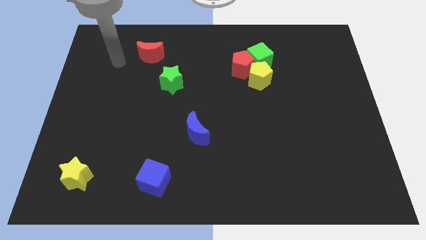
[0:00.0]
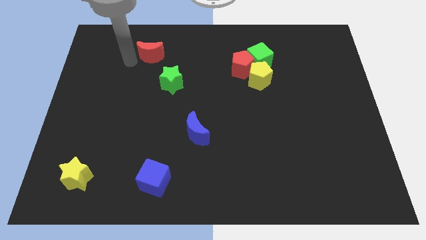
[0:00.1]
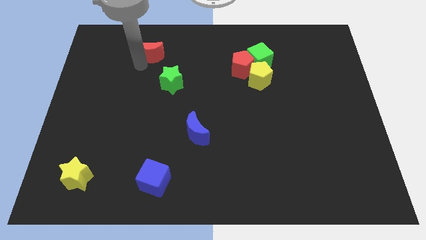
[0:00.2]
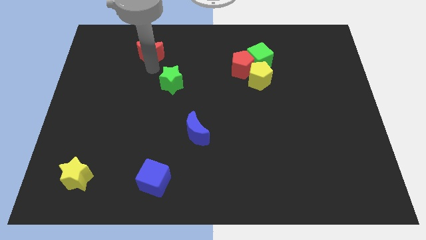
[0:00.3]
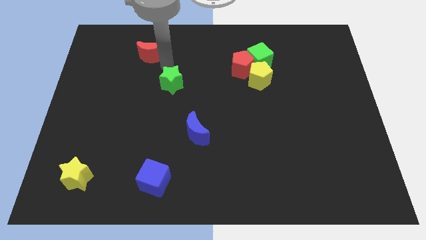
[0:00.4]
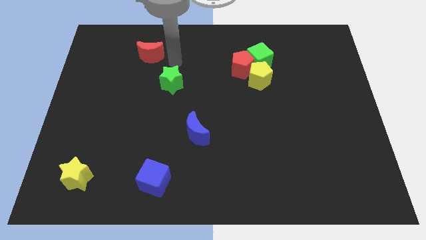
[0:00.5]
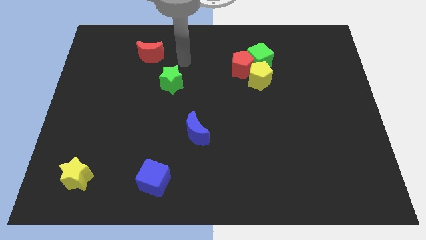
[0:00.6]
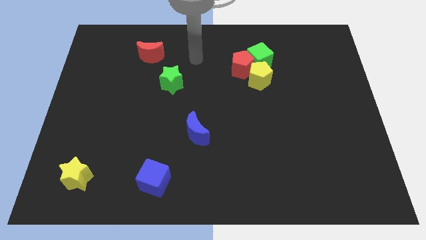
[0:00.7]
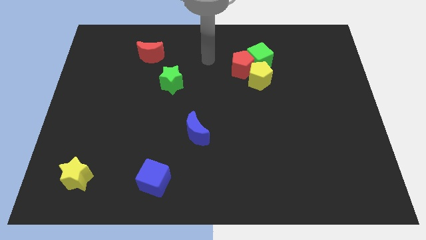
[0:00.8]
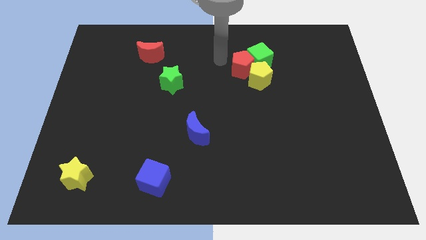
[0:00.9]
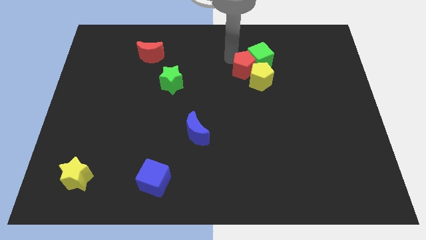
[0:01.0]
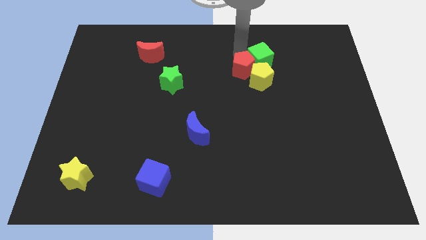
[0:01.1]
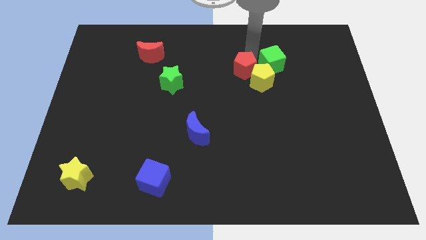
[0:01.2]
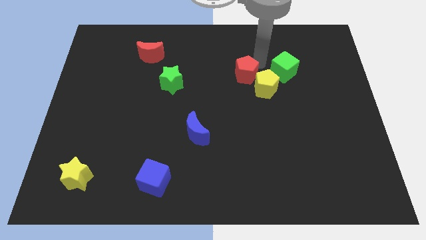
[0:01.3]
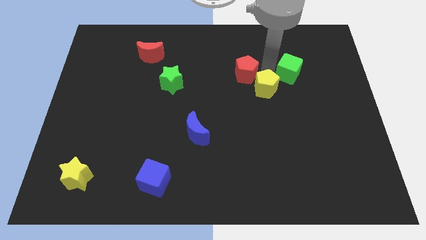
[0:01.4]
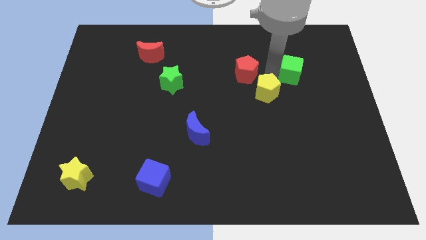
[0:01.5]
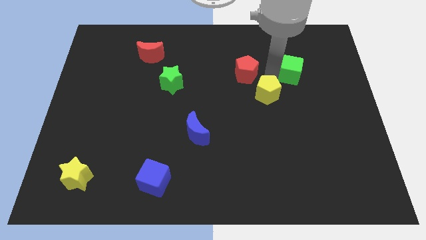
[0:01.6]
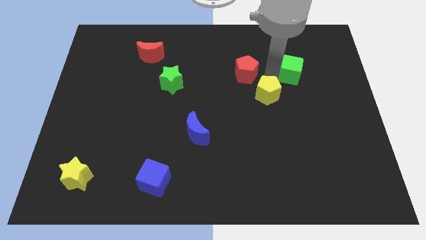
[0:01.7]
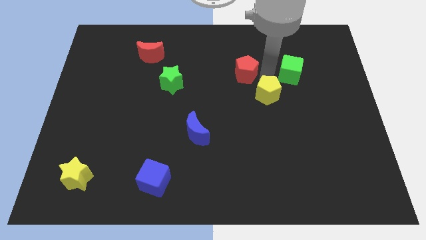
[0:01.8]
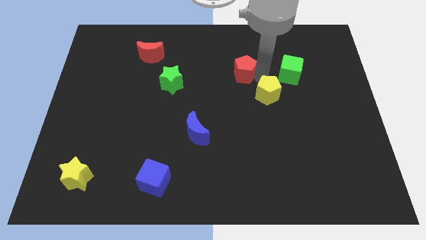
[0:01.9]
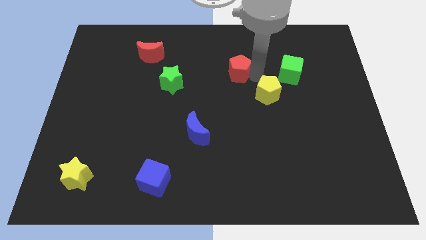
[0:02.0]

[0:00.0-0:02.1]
move the red pentagon away from the green cube and yellow pentagon

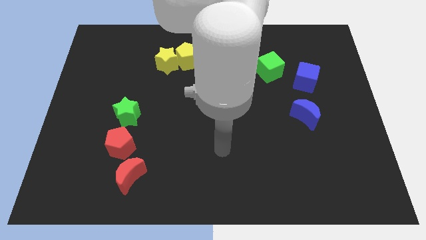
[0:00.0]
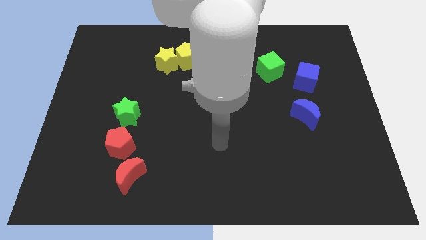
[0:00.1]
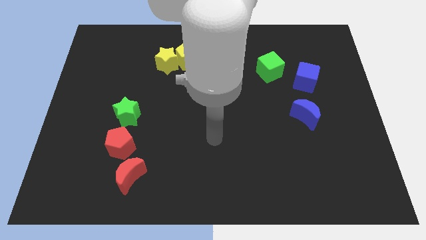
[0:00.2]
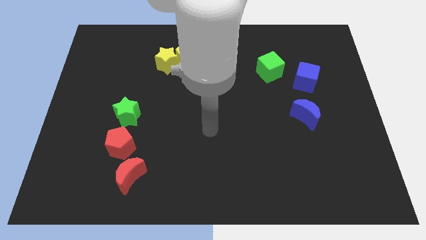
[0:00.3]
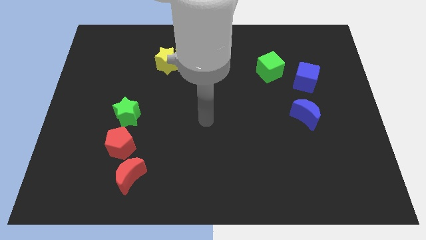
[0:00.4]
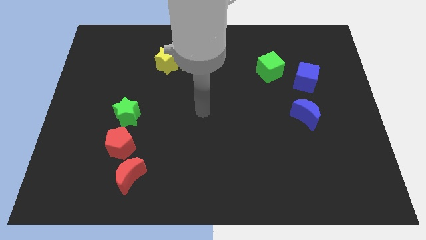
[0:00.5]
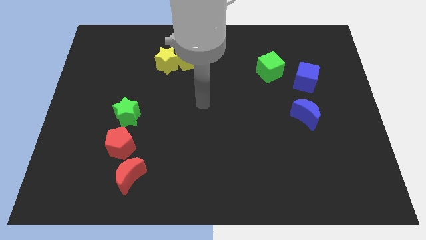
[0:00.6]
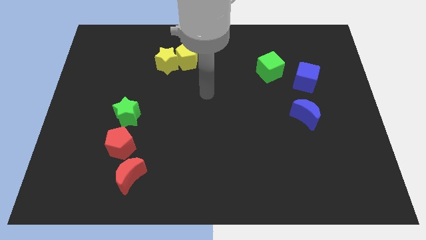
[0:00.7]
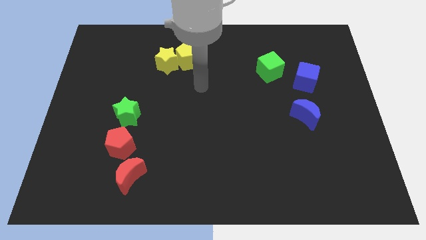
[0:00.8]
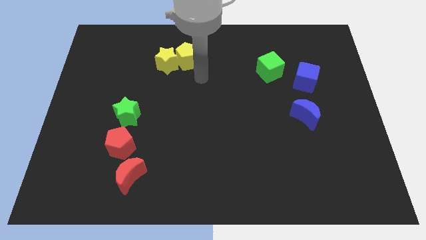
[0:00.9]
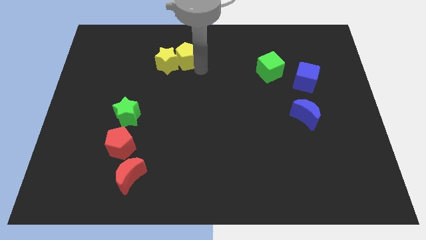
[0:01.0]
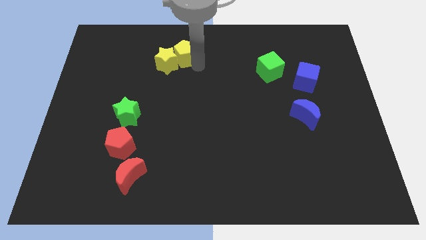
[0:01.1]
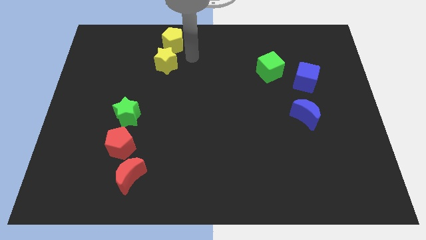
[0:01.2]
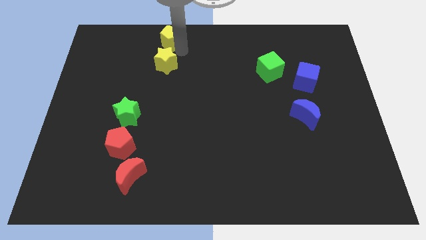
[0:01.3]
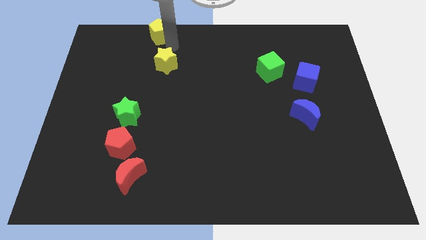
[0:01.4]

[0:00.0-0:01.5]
move the yellow star away from the yellow pentagon

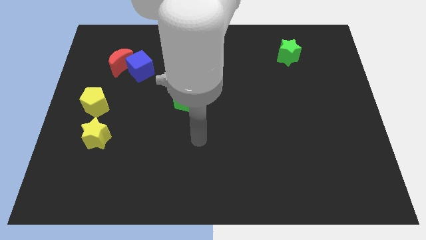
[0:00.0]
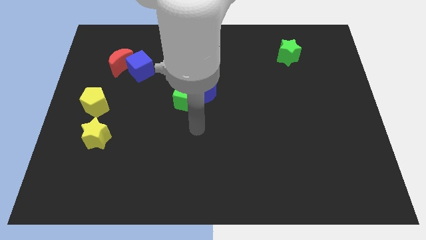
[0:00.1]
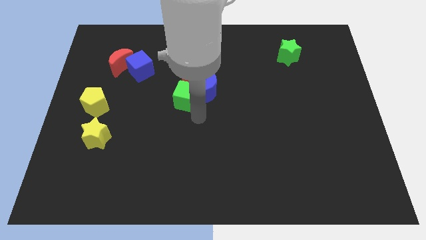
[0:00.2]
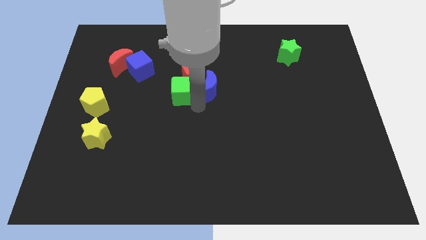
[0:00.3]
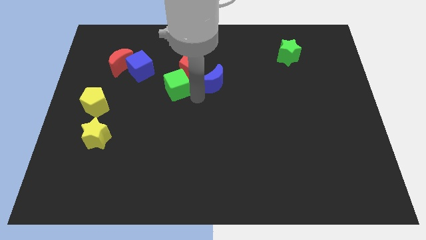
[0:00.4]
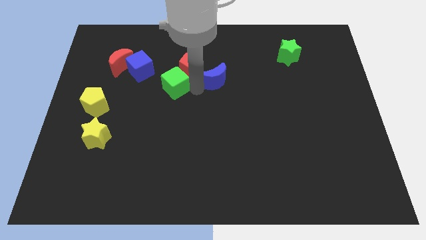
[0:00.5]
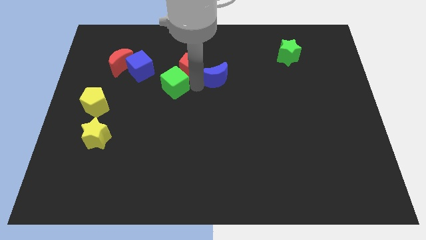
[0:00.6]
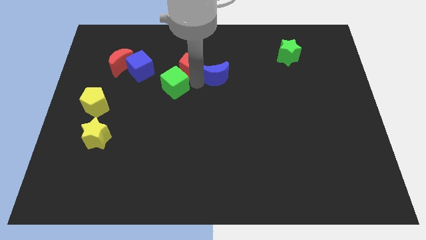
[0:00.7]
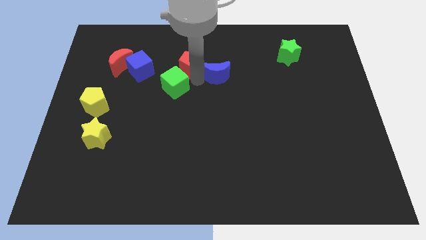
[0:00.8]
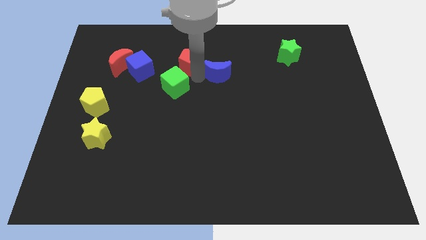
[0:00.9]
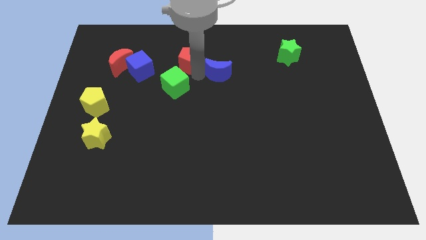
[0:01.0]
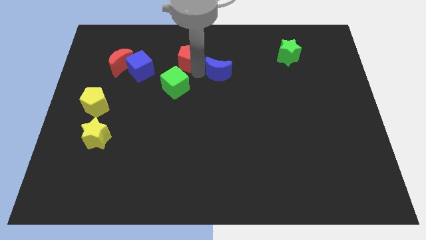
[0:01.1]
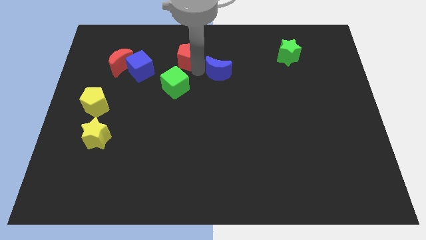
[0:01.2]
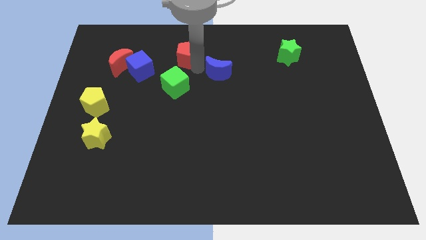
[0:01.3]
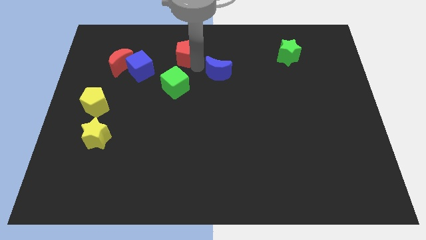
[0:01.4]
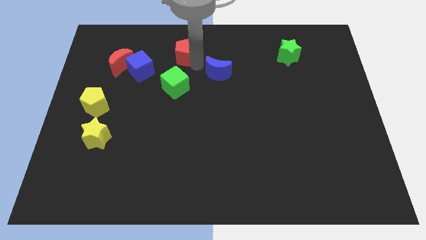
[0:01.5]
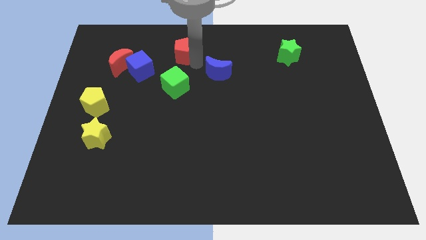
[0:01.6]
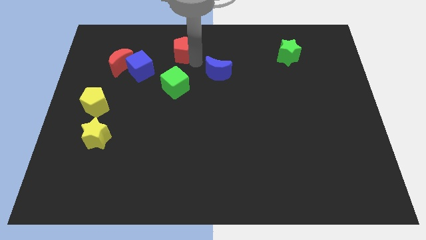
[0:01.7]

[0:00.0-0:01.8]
pull the red pentagon apart from the blue moon and green cube

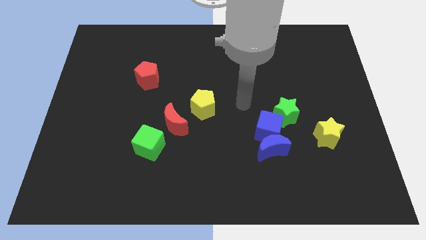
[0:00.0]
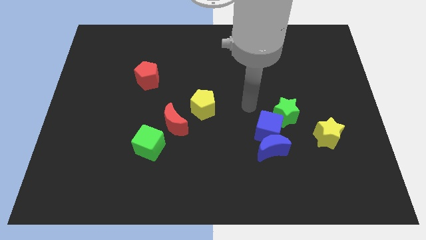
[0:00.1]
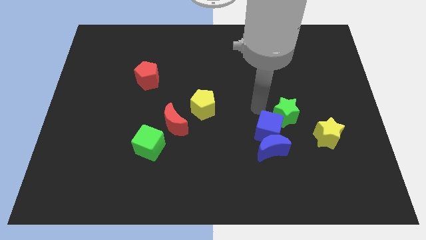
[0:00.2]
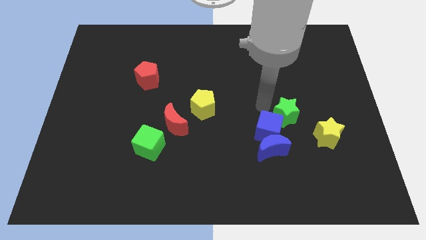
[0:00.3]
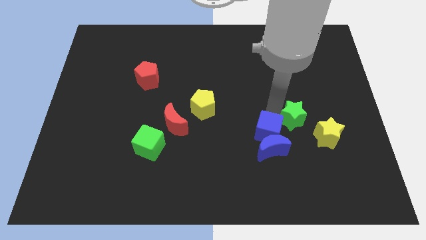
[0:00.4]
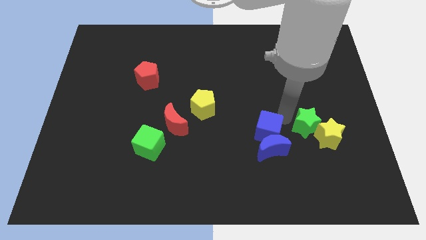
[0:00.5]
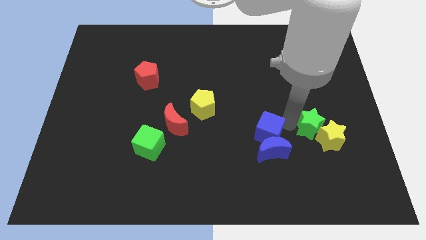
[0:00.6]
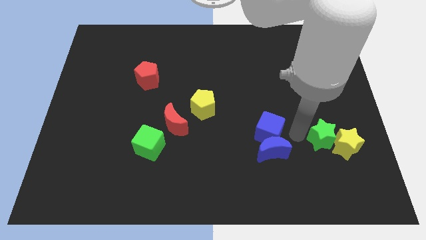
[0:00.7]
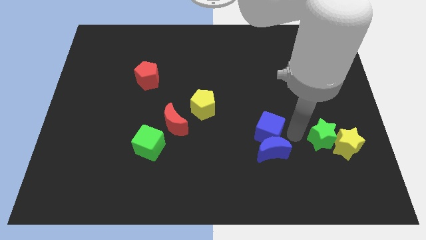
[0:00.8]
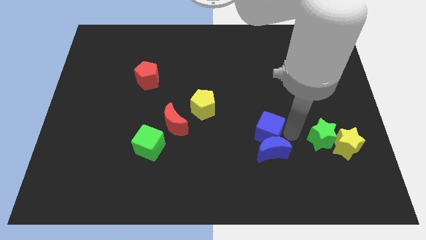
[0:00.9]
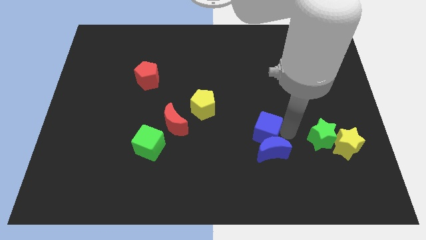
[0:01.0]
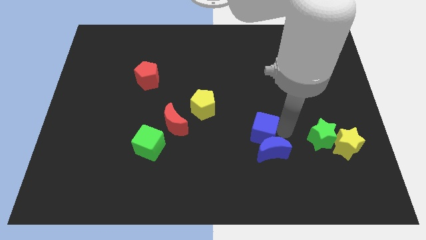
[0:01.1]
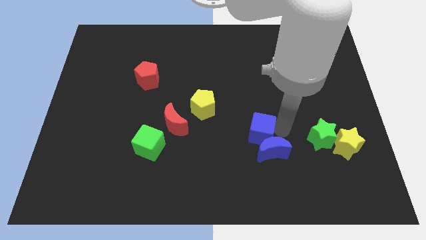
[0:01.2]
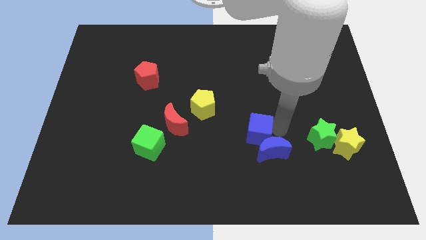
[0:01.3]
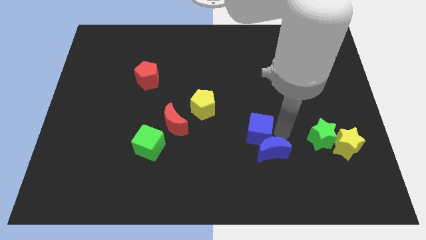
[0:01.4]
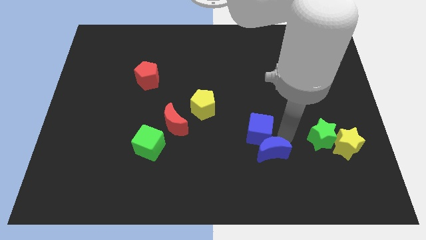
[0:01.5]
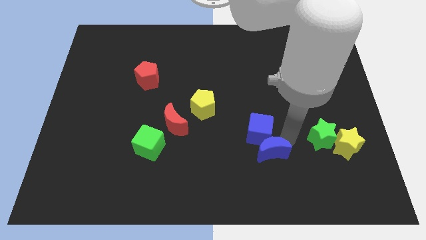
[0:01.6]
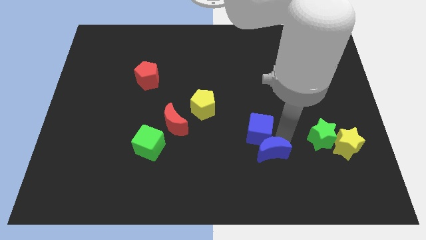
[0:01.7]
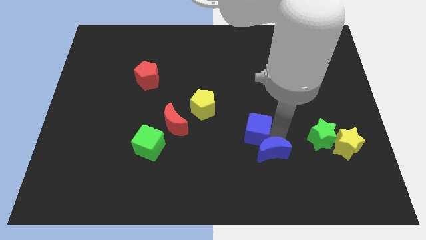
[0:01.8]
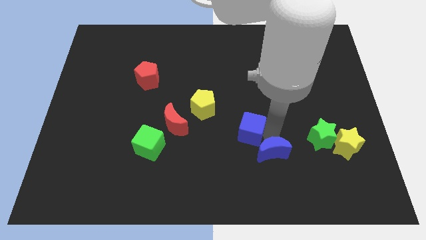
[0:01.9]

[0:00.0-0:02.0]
separate the blue cube from the blue moon and green star

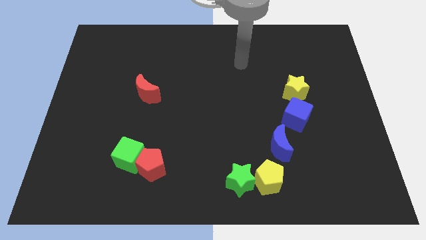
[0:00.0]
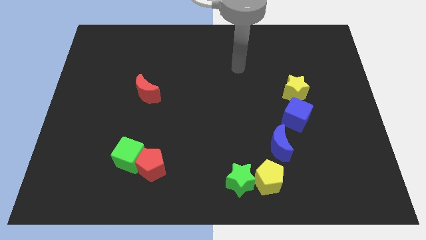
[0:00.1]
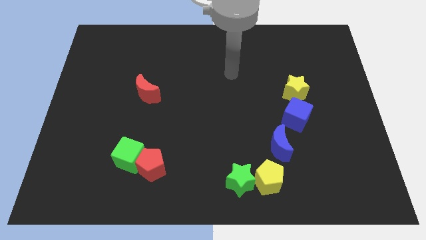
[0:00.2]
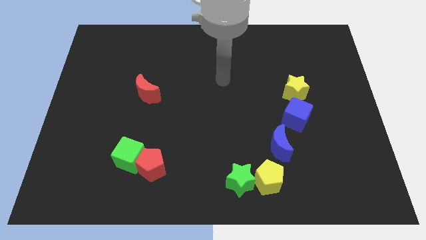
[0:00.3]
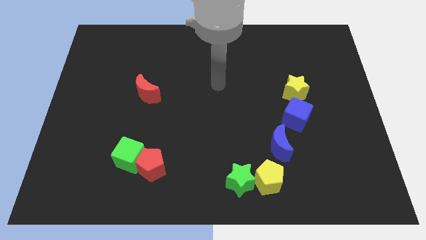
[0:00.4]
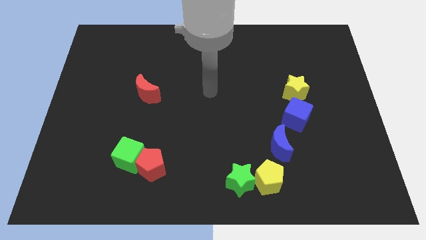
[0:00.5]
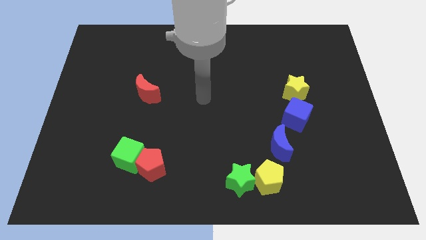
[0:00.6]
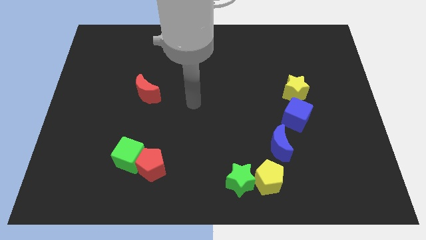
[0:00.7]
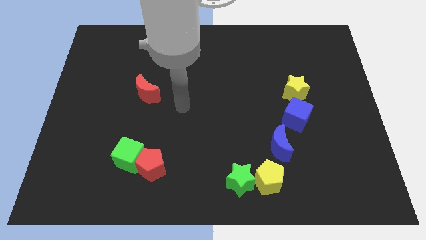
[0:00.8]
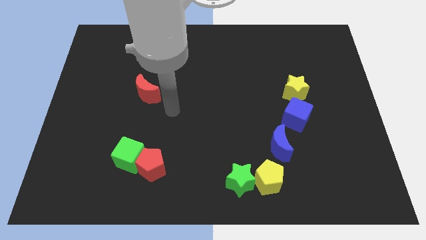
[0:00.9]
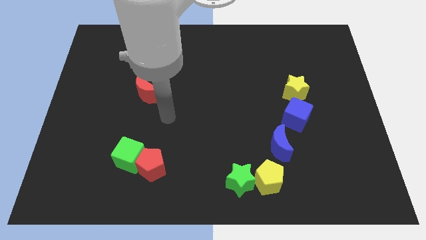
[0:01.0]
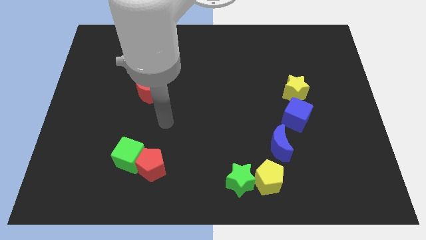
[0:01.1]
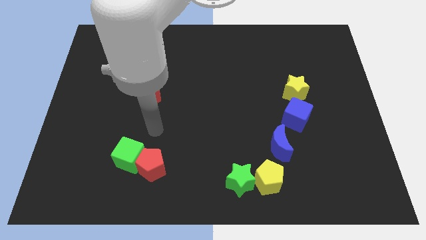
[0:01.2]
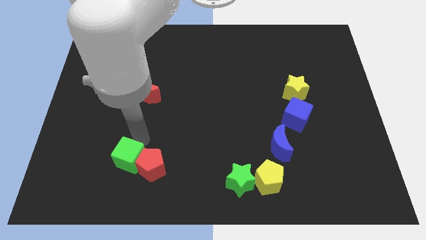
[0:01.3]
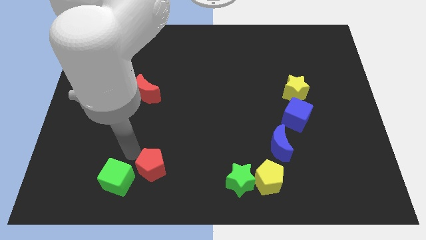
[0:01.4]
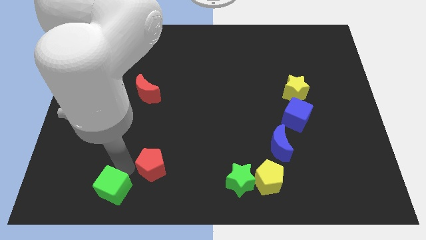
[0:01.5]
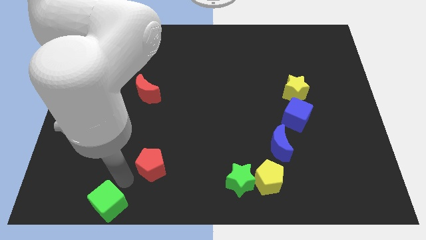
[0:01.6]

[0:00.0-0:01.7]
separate the red pentagon from the green cube
